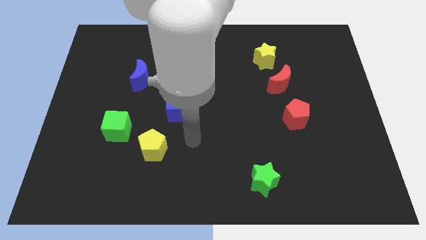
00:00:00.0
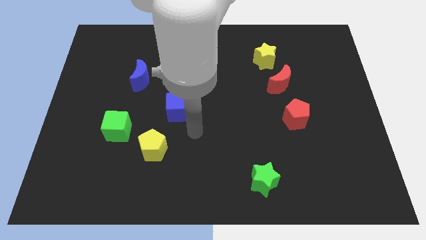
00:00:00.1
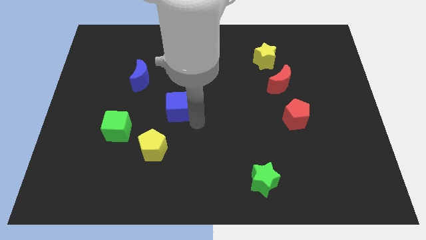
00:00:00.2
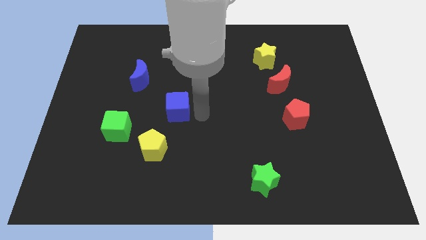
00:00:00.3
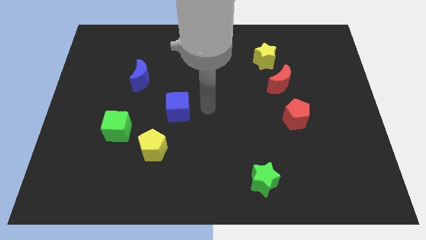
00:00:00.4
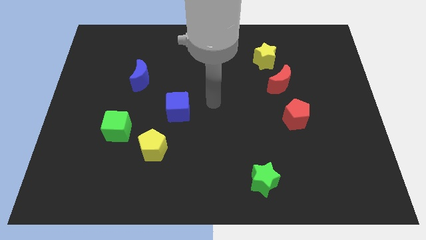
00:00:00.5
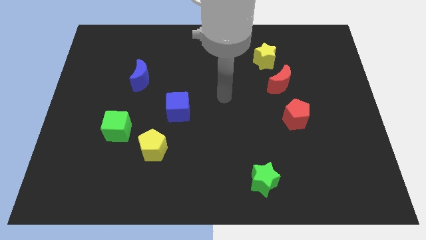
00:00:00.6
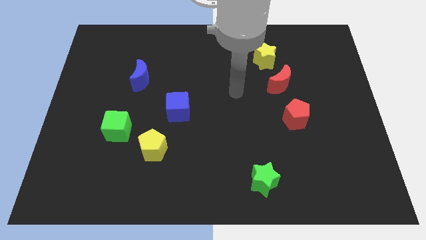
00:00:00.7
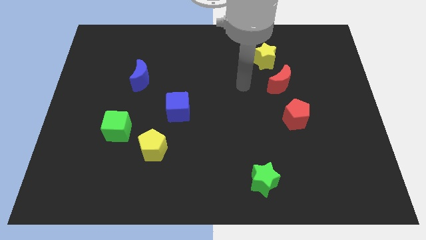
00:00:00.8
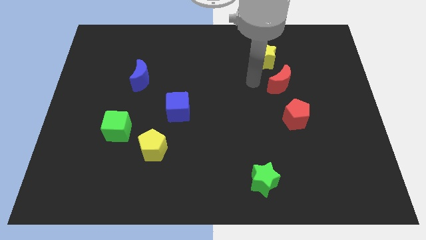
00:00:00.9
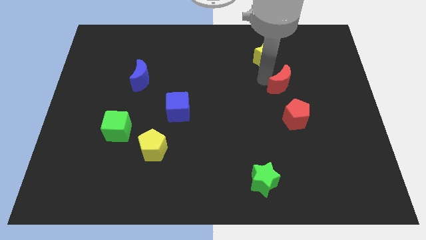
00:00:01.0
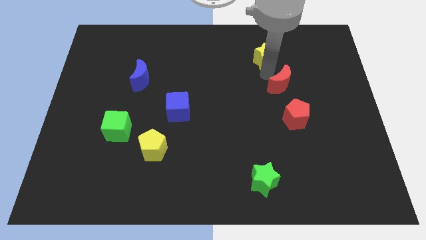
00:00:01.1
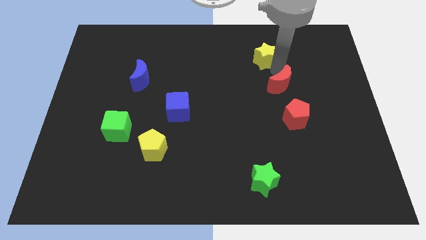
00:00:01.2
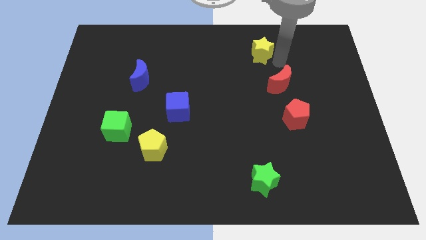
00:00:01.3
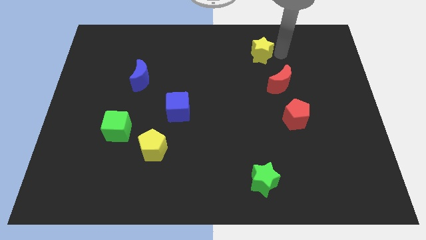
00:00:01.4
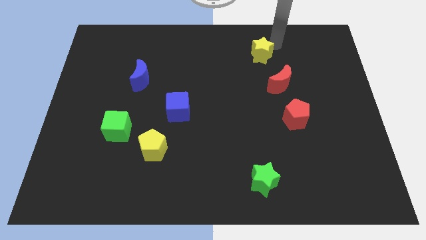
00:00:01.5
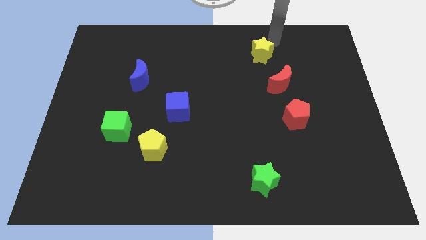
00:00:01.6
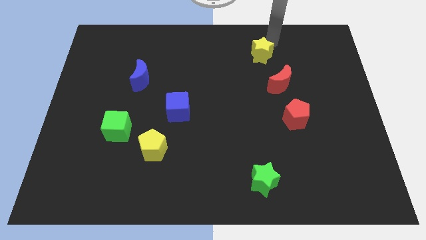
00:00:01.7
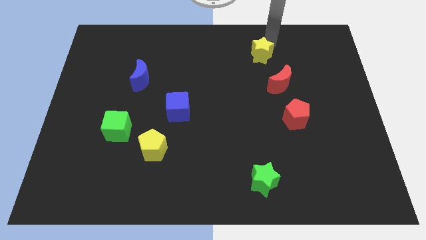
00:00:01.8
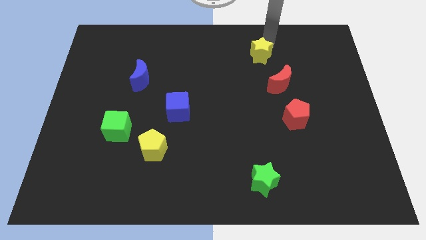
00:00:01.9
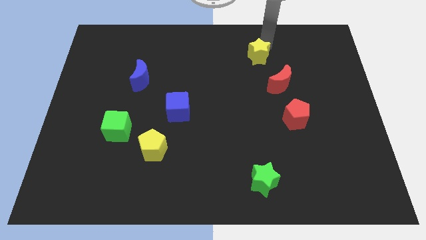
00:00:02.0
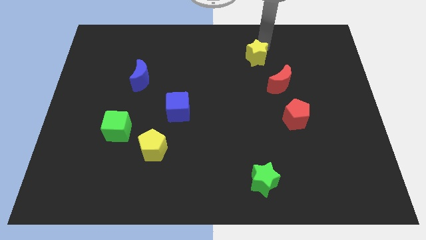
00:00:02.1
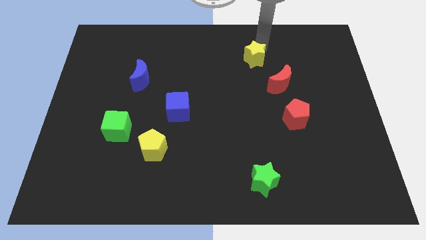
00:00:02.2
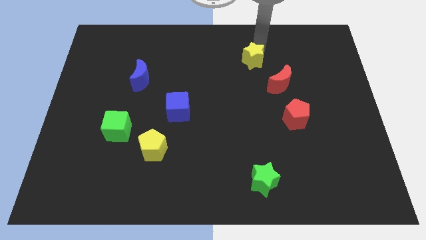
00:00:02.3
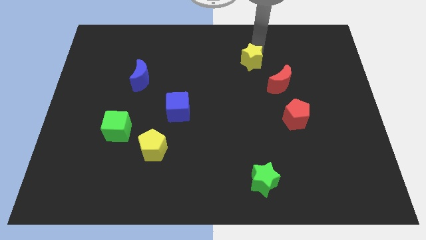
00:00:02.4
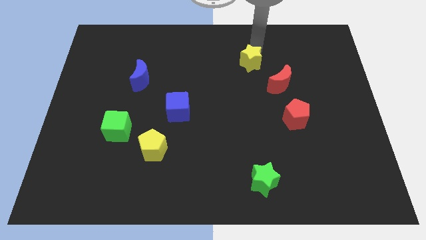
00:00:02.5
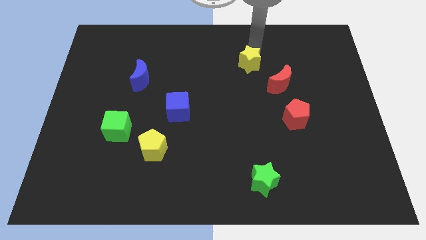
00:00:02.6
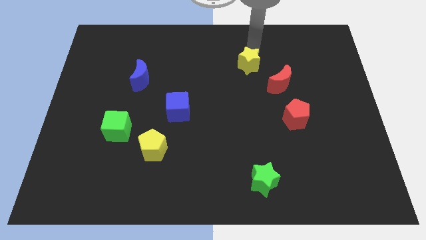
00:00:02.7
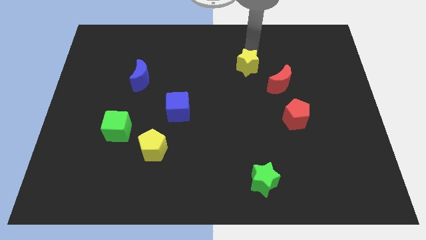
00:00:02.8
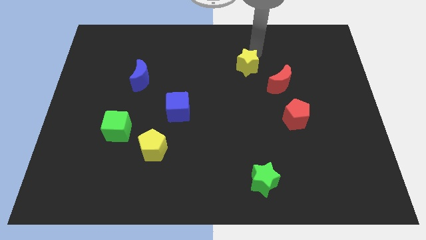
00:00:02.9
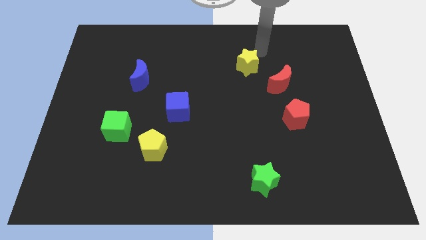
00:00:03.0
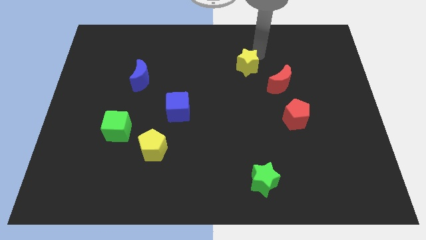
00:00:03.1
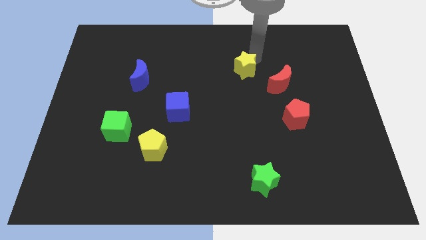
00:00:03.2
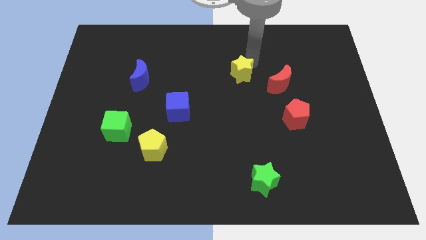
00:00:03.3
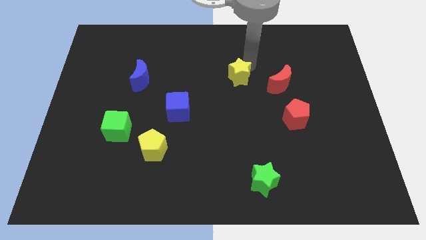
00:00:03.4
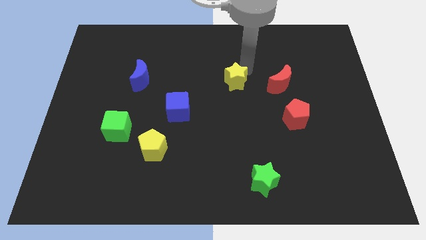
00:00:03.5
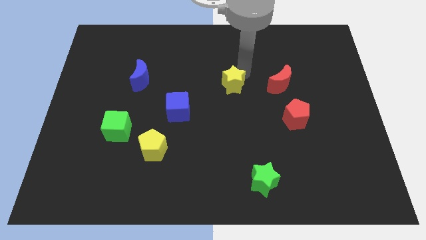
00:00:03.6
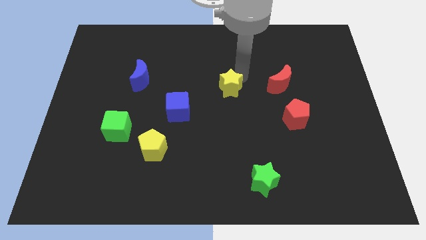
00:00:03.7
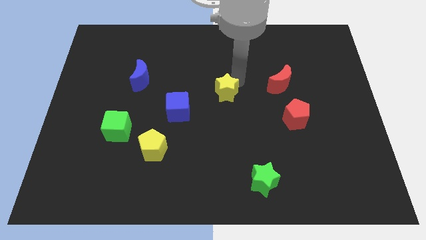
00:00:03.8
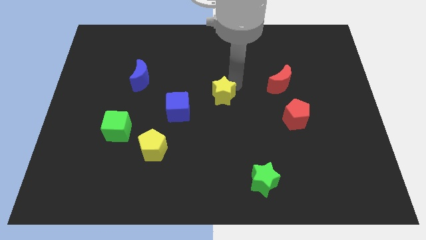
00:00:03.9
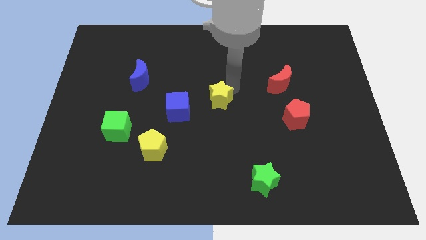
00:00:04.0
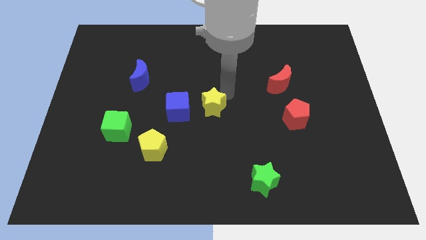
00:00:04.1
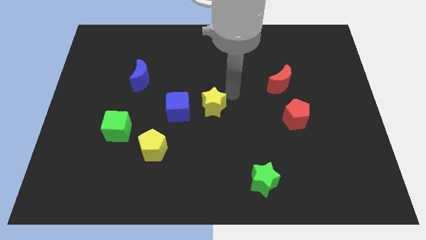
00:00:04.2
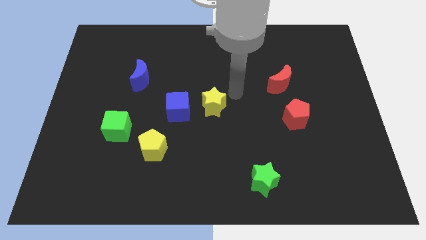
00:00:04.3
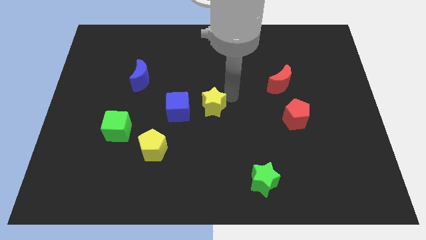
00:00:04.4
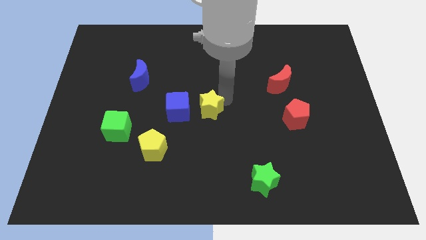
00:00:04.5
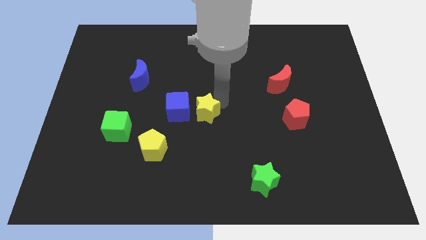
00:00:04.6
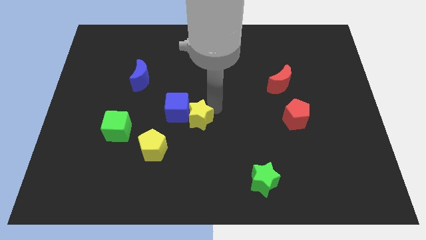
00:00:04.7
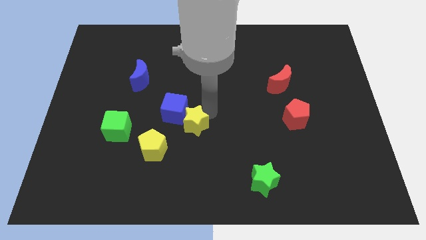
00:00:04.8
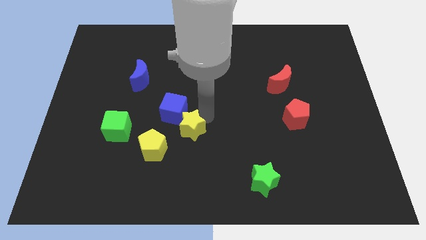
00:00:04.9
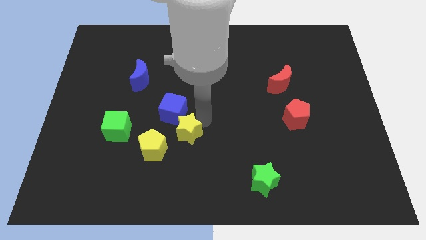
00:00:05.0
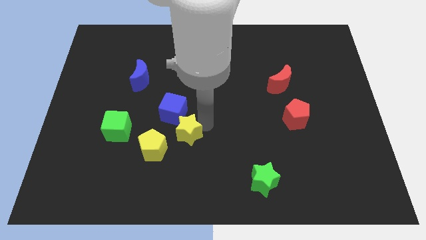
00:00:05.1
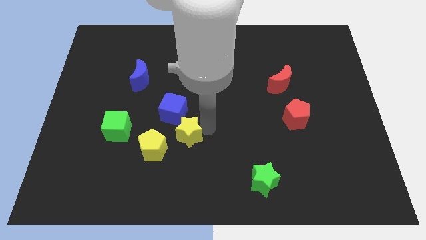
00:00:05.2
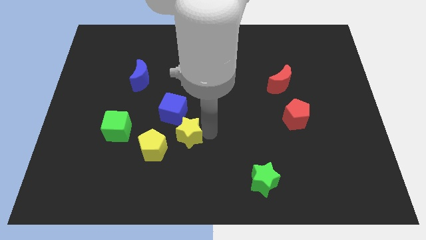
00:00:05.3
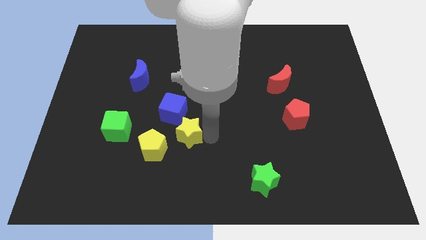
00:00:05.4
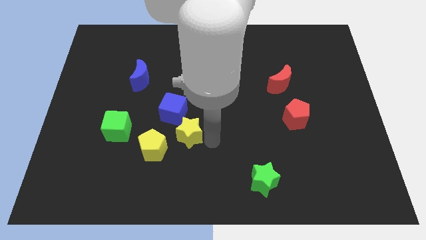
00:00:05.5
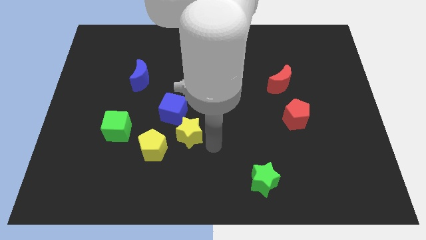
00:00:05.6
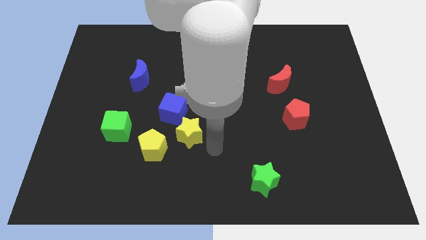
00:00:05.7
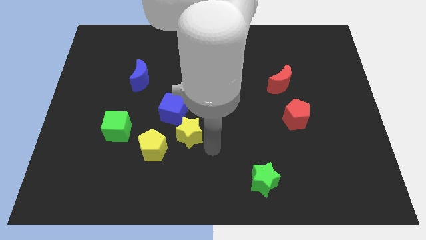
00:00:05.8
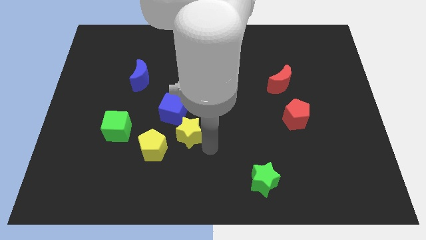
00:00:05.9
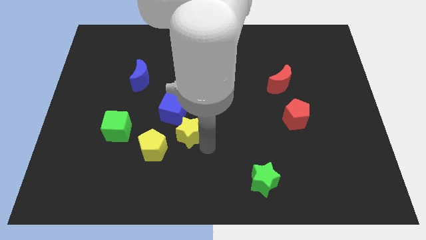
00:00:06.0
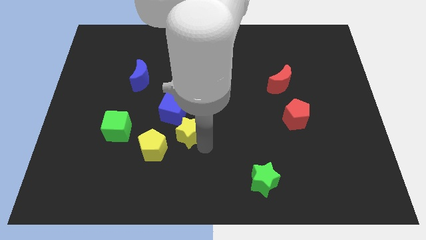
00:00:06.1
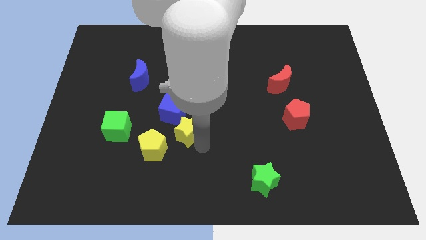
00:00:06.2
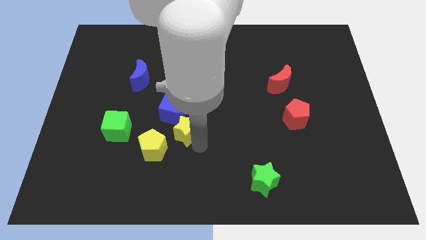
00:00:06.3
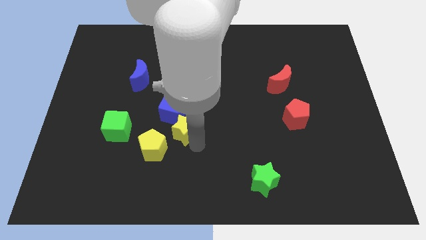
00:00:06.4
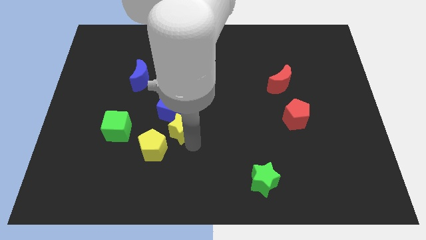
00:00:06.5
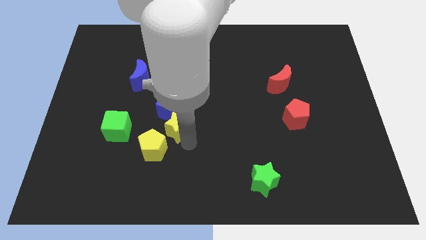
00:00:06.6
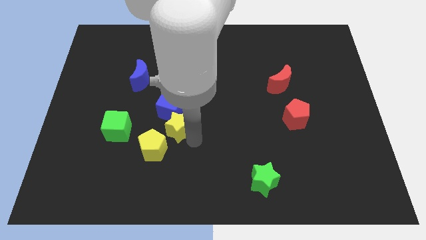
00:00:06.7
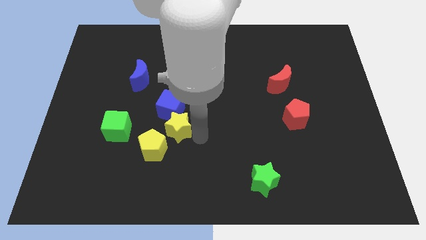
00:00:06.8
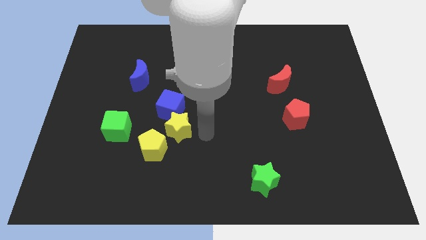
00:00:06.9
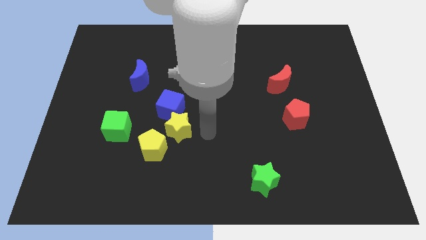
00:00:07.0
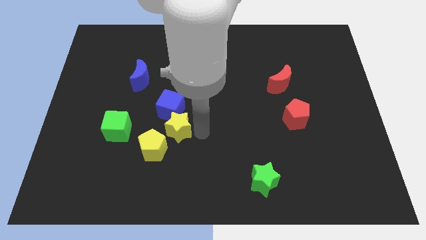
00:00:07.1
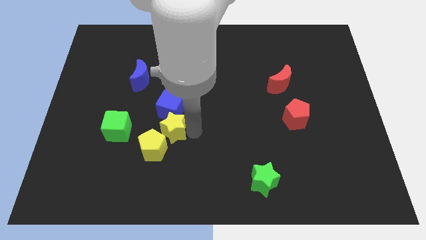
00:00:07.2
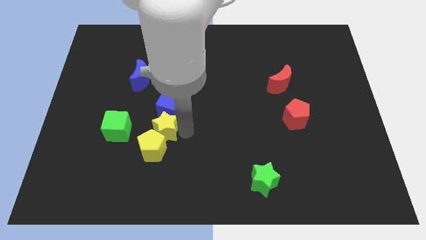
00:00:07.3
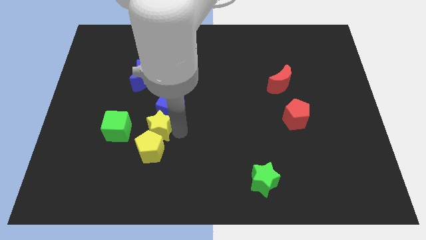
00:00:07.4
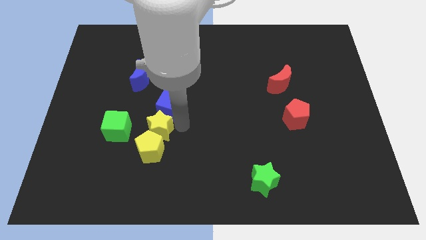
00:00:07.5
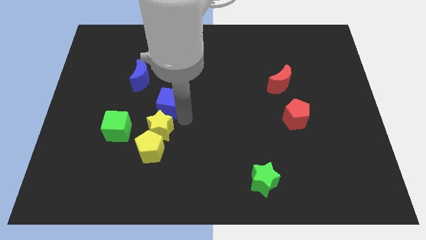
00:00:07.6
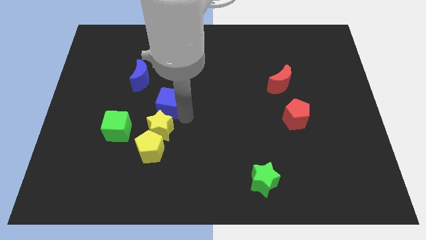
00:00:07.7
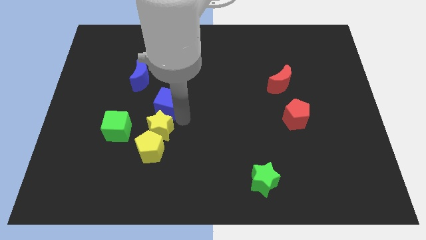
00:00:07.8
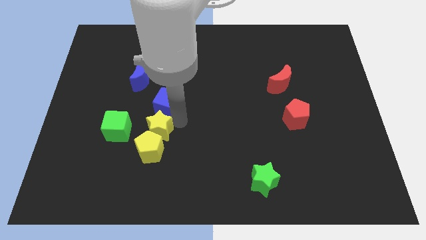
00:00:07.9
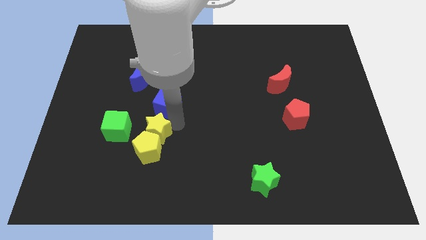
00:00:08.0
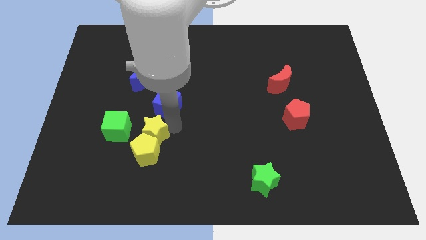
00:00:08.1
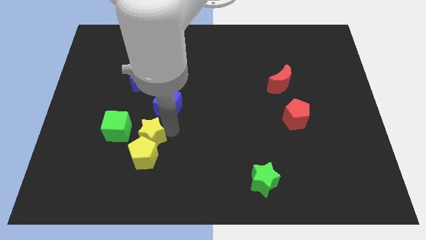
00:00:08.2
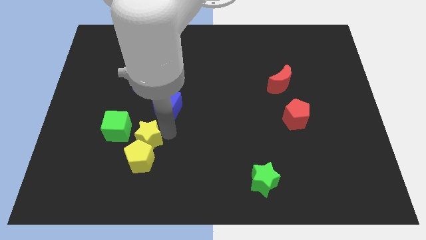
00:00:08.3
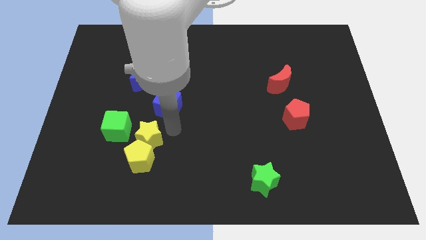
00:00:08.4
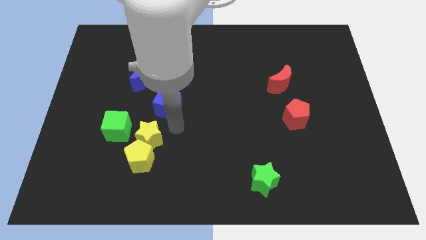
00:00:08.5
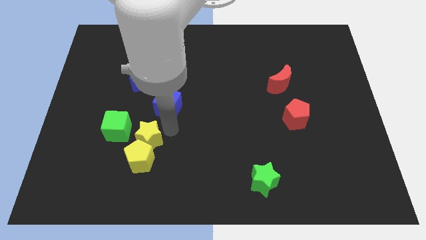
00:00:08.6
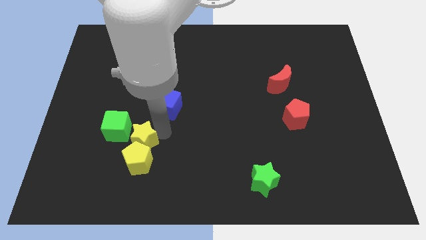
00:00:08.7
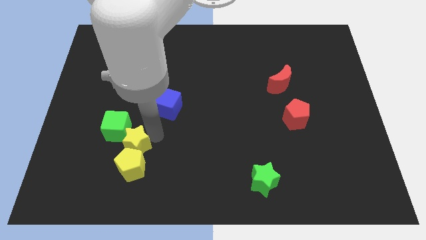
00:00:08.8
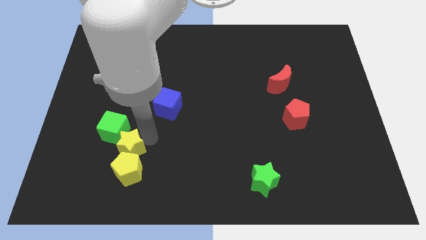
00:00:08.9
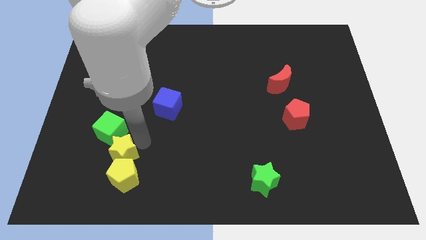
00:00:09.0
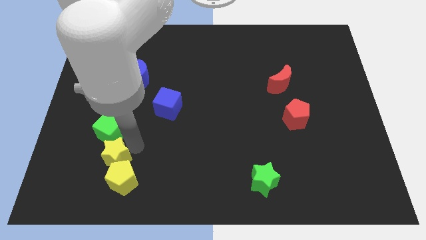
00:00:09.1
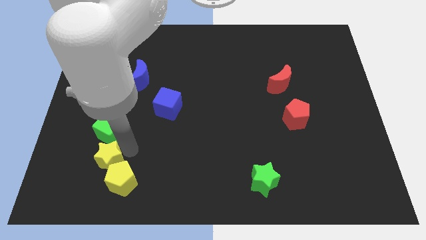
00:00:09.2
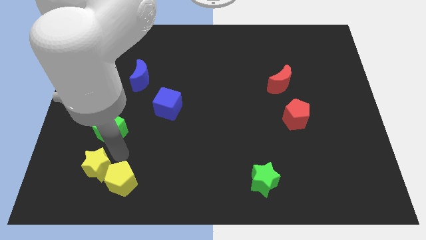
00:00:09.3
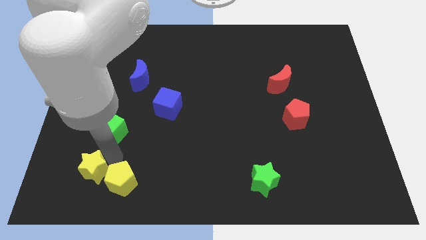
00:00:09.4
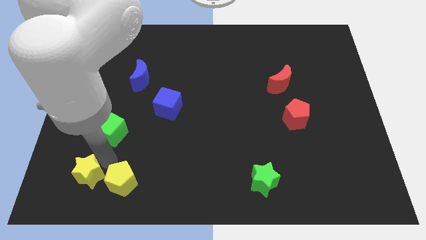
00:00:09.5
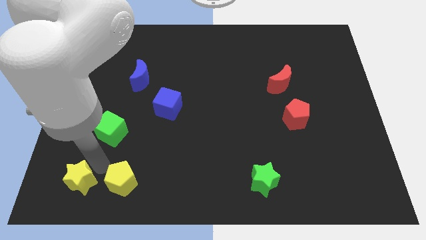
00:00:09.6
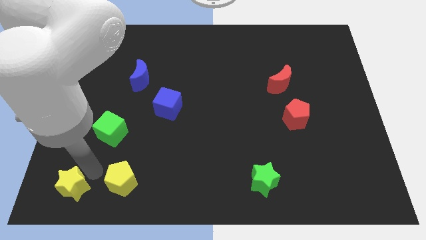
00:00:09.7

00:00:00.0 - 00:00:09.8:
move the yellow star to the bottom left of the board
